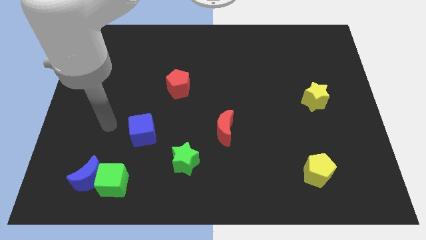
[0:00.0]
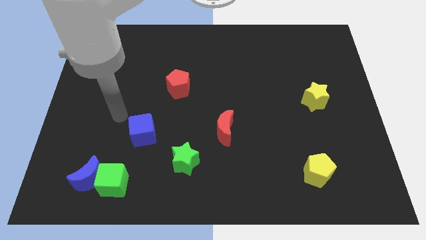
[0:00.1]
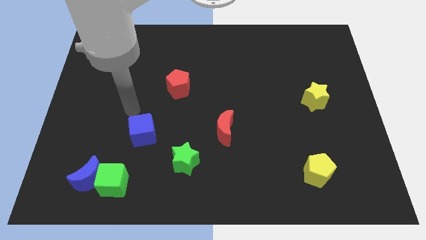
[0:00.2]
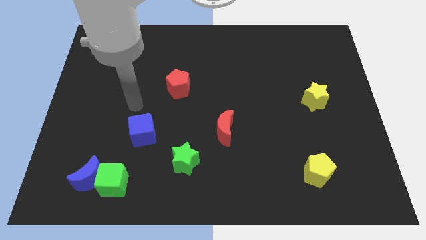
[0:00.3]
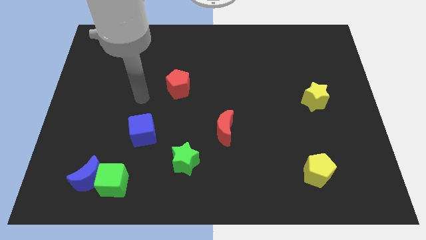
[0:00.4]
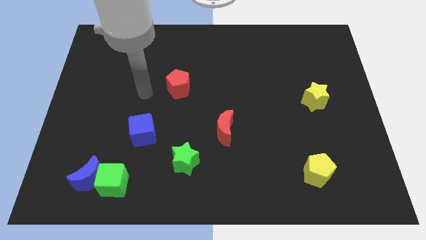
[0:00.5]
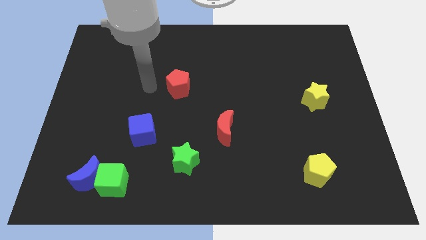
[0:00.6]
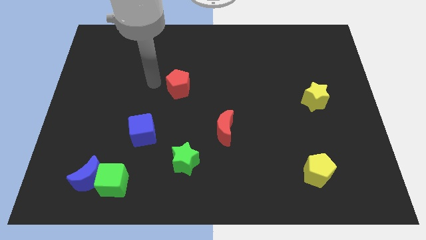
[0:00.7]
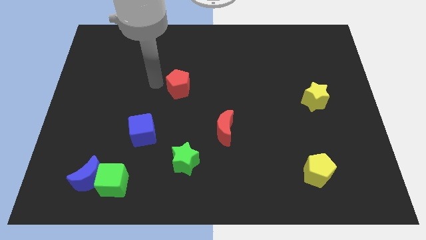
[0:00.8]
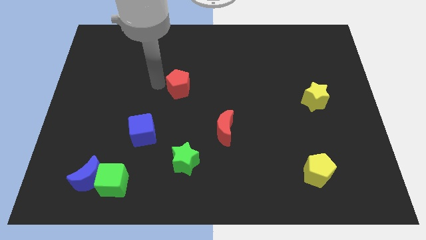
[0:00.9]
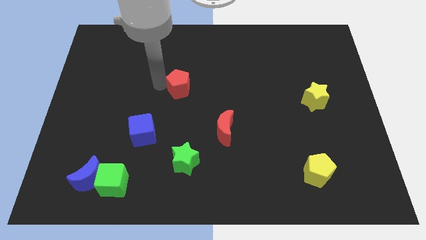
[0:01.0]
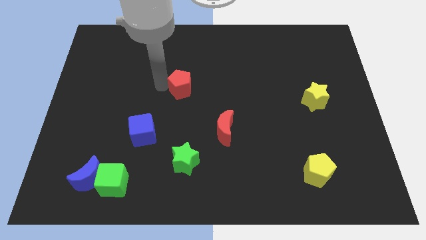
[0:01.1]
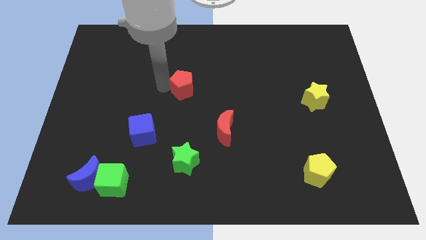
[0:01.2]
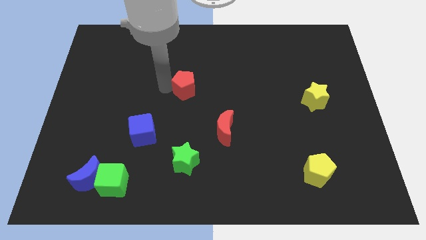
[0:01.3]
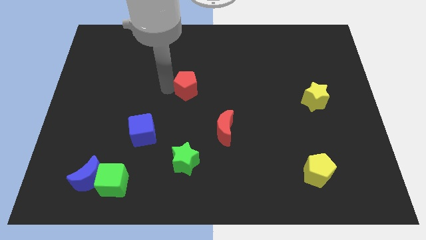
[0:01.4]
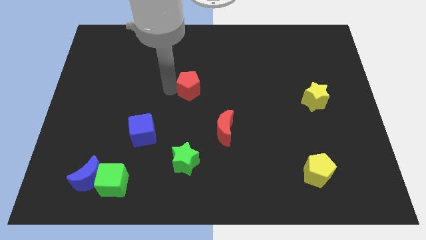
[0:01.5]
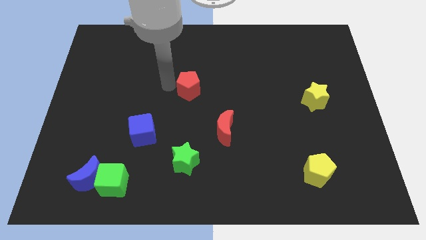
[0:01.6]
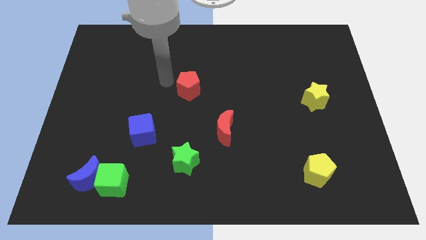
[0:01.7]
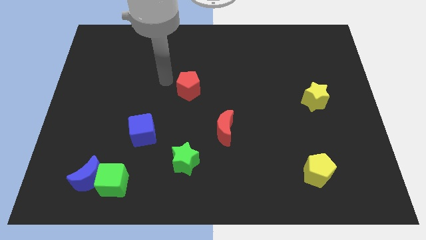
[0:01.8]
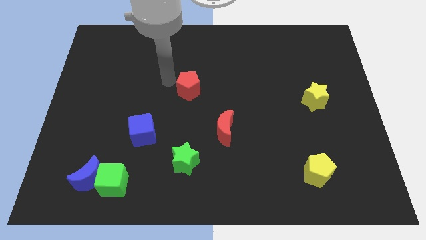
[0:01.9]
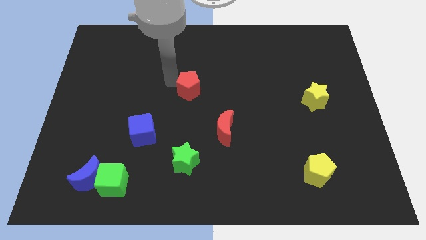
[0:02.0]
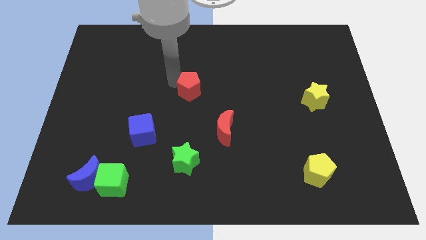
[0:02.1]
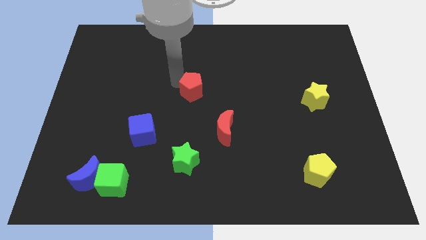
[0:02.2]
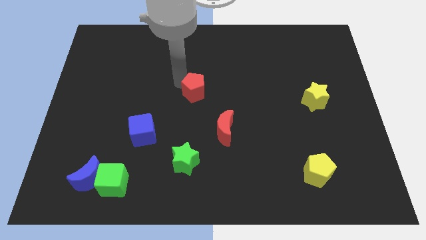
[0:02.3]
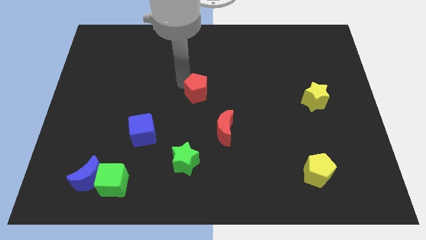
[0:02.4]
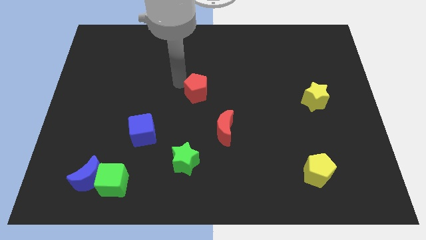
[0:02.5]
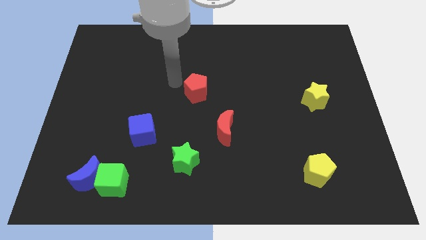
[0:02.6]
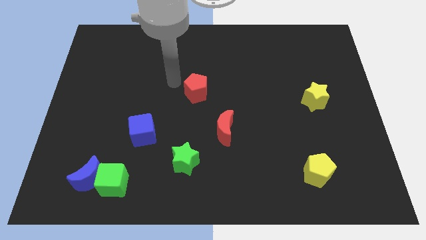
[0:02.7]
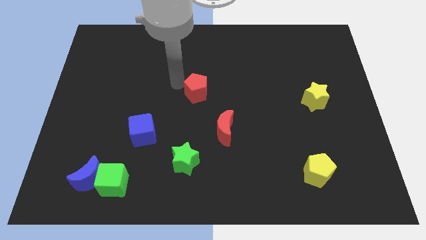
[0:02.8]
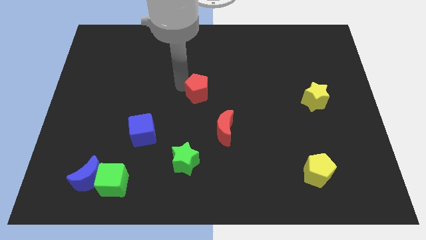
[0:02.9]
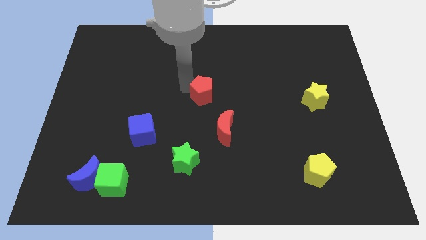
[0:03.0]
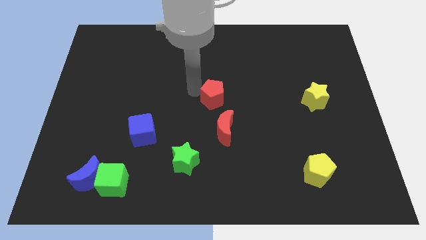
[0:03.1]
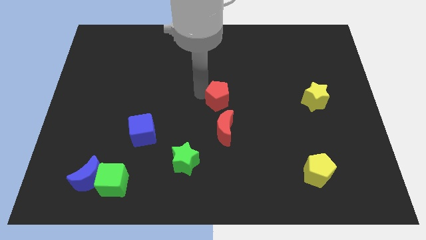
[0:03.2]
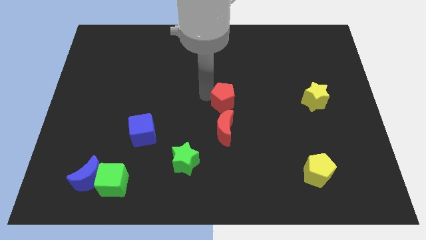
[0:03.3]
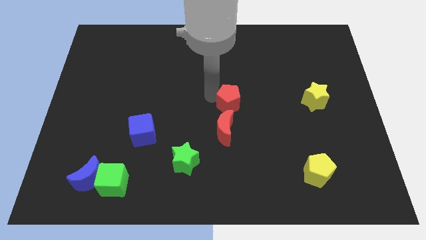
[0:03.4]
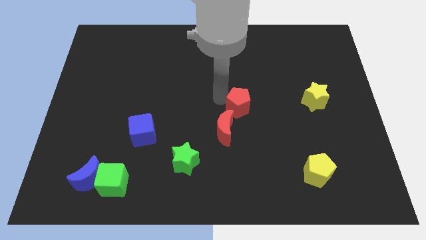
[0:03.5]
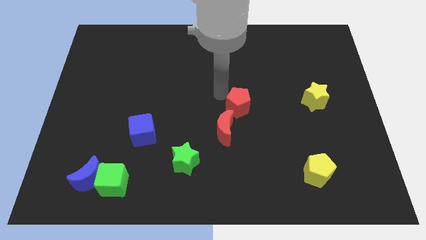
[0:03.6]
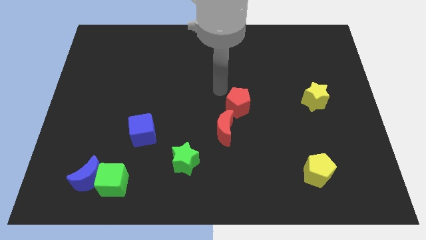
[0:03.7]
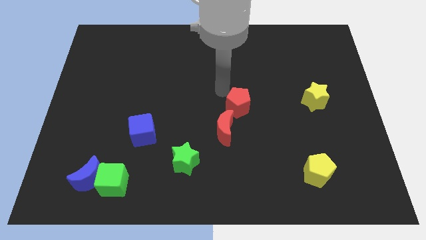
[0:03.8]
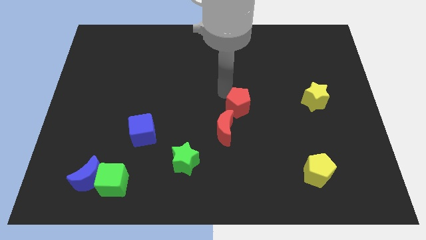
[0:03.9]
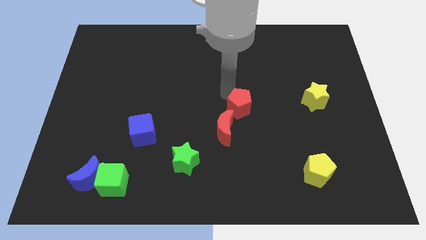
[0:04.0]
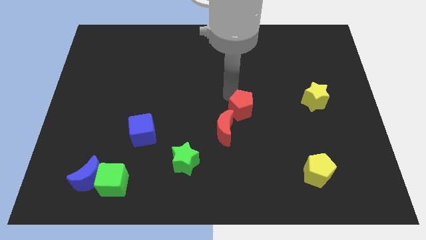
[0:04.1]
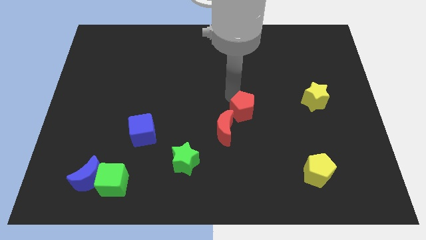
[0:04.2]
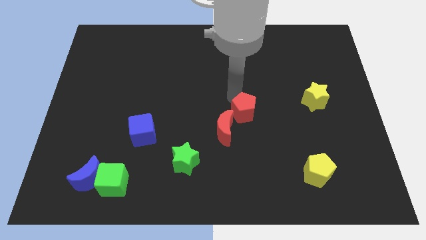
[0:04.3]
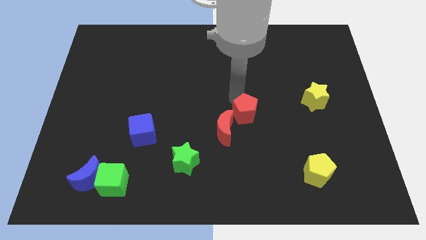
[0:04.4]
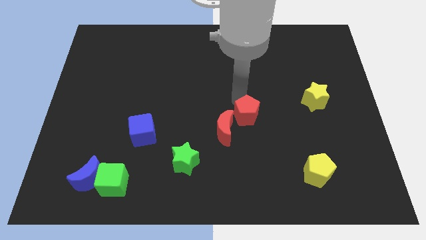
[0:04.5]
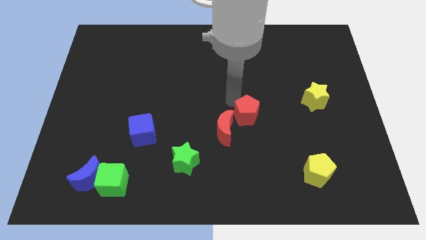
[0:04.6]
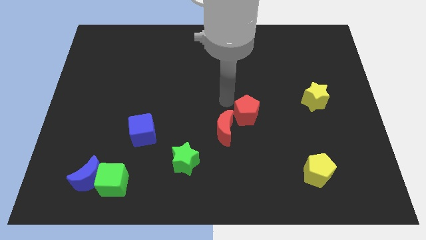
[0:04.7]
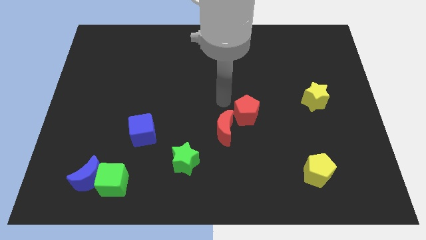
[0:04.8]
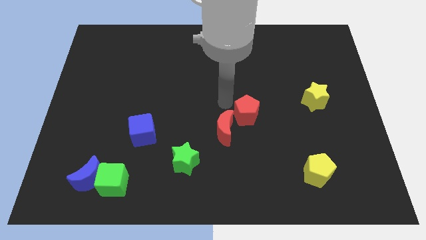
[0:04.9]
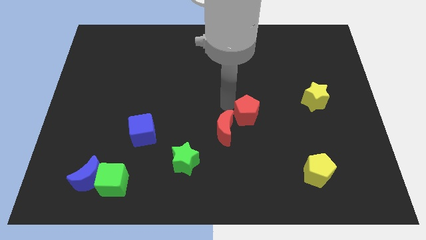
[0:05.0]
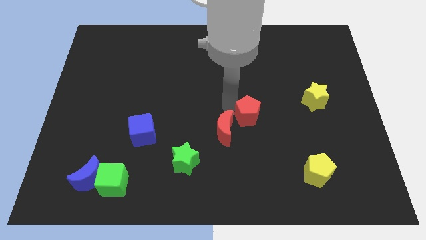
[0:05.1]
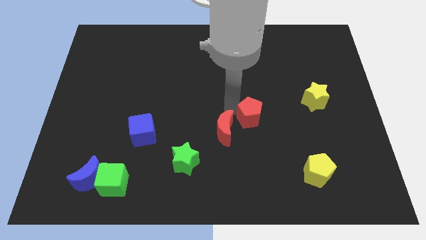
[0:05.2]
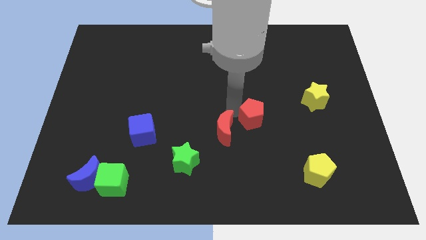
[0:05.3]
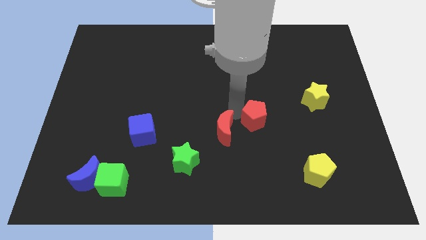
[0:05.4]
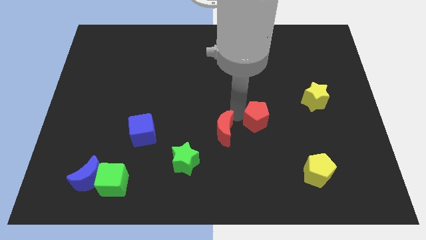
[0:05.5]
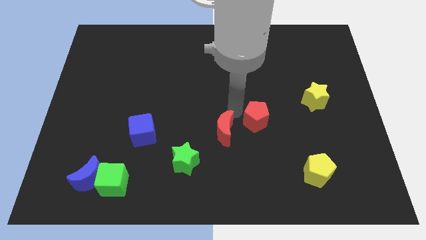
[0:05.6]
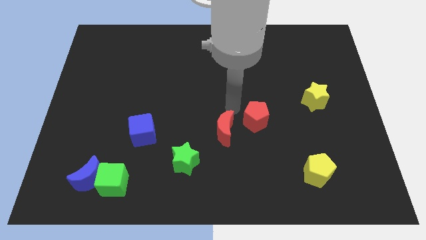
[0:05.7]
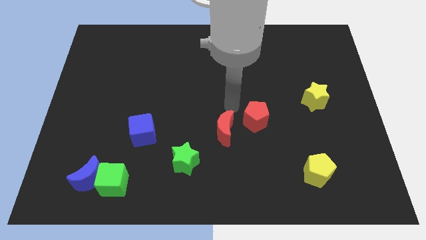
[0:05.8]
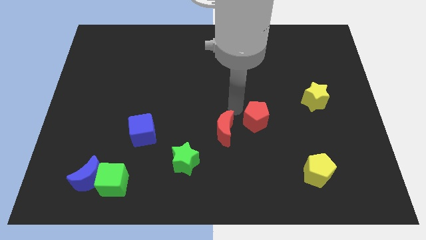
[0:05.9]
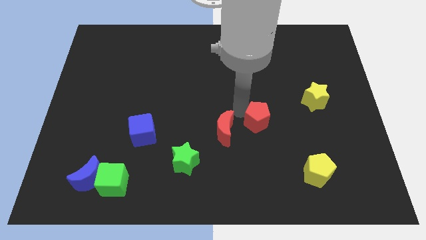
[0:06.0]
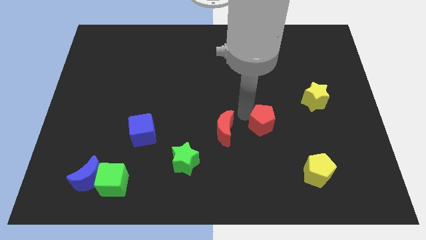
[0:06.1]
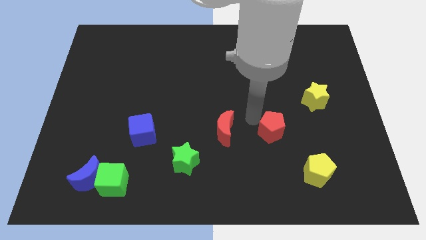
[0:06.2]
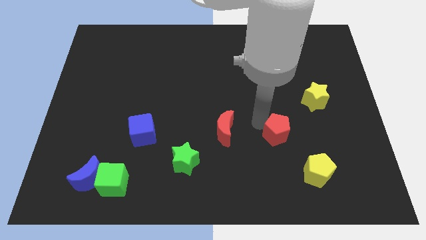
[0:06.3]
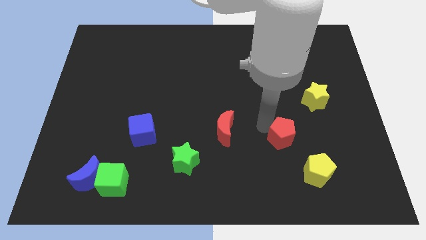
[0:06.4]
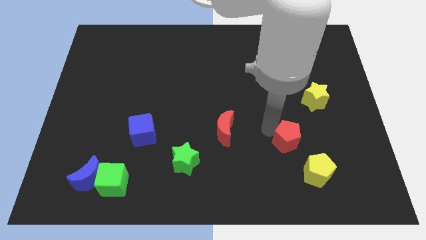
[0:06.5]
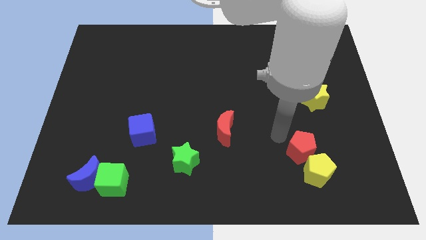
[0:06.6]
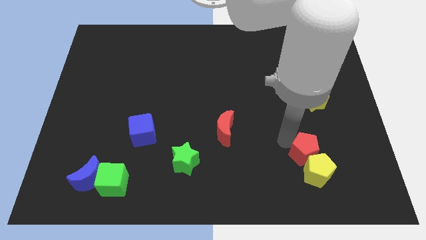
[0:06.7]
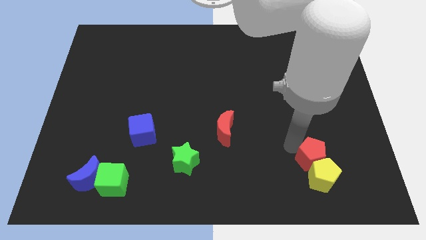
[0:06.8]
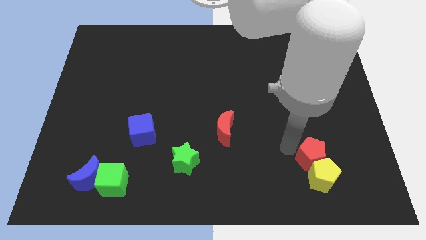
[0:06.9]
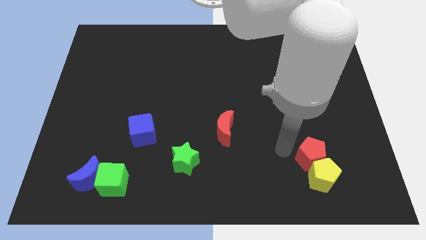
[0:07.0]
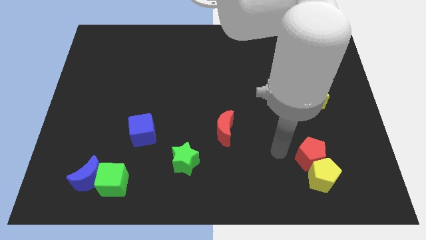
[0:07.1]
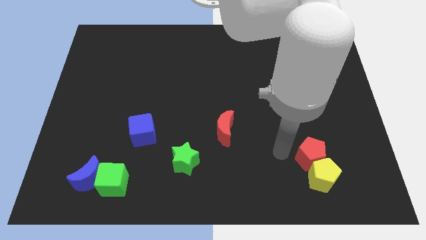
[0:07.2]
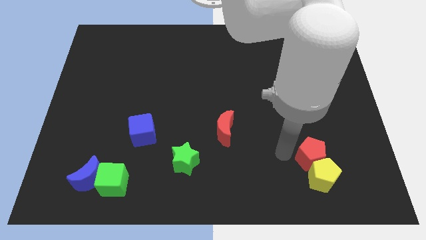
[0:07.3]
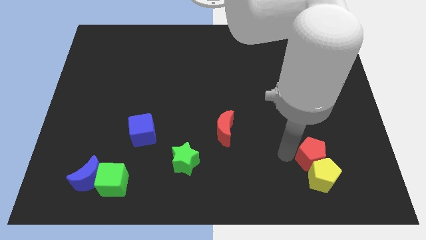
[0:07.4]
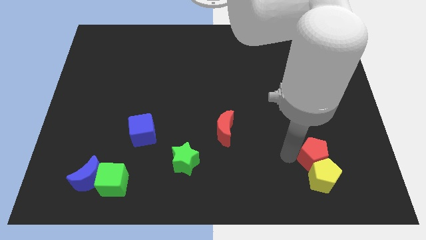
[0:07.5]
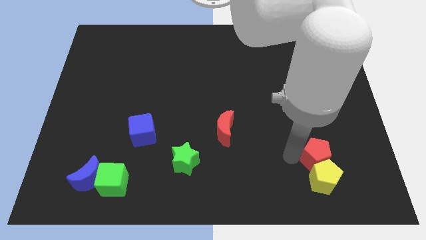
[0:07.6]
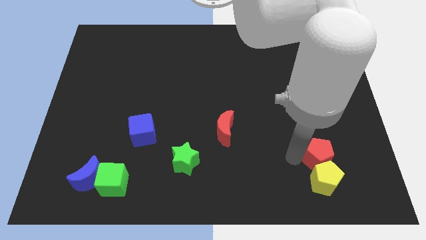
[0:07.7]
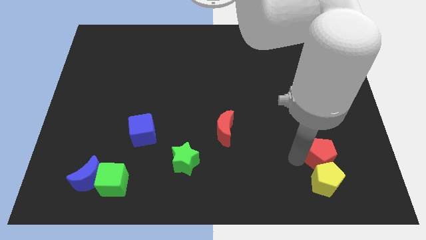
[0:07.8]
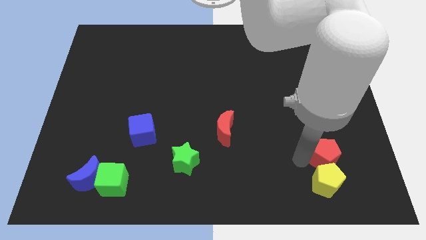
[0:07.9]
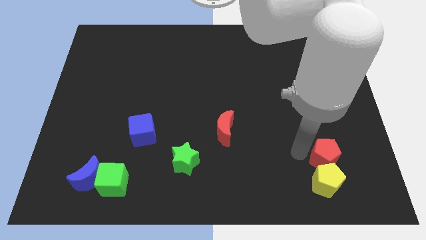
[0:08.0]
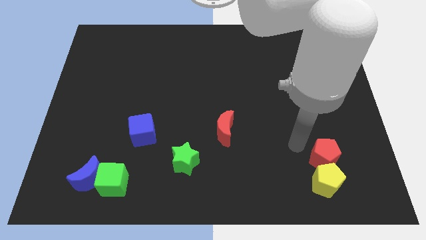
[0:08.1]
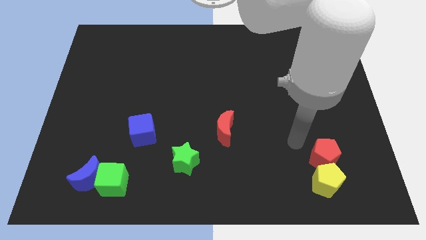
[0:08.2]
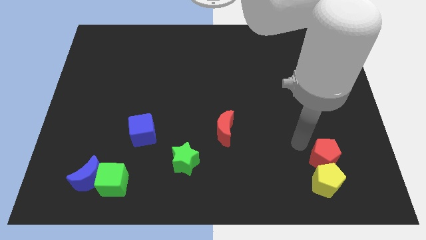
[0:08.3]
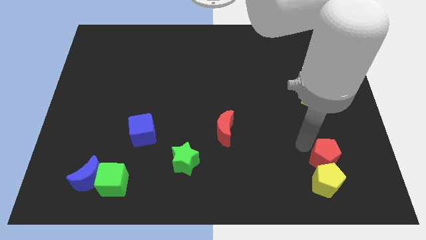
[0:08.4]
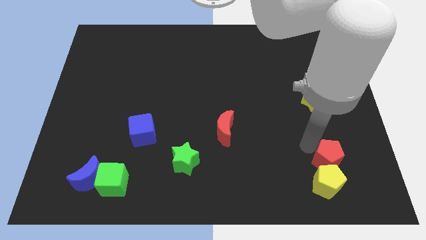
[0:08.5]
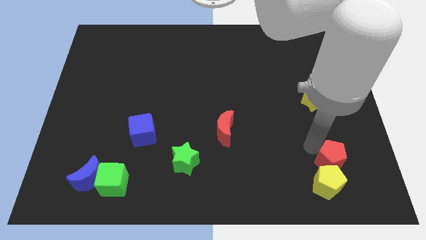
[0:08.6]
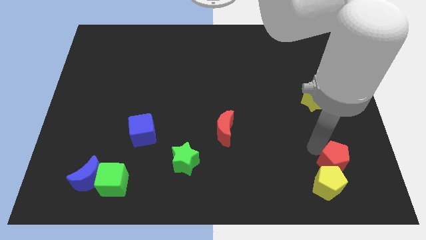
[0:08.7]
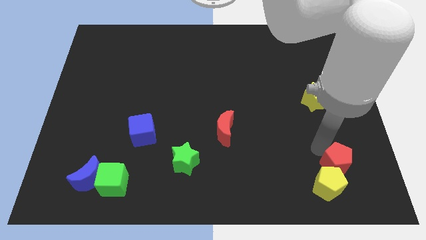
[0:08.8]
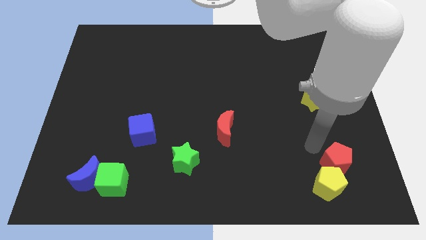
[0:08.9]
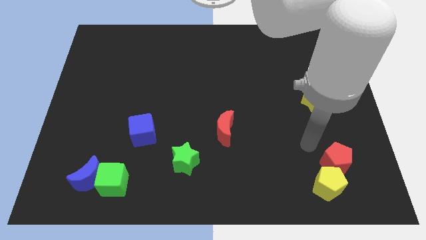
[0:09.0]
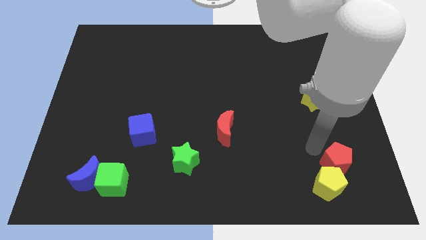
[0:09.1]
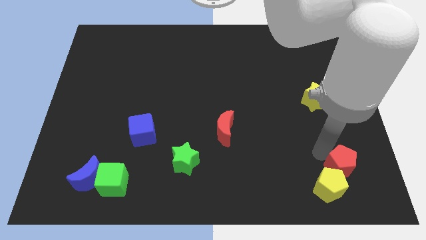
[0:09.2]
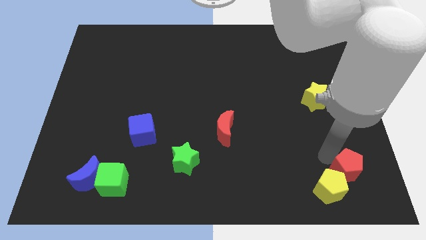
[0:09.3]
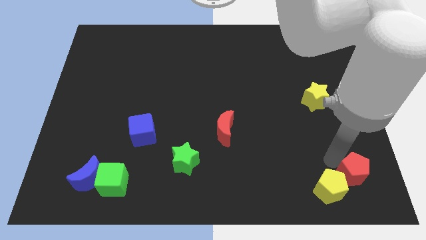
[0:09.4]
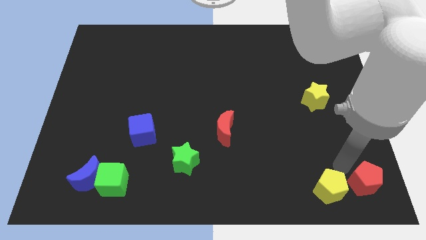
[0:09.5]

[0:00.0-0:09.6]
move the red pentagon to the bottom right corner
